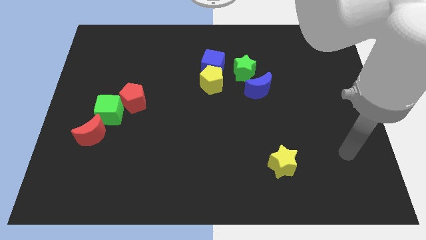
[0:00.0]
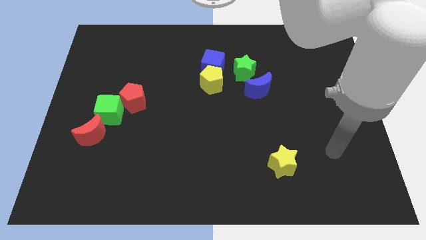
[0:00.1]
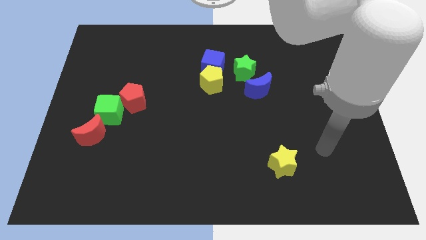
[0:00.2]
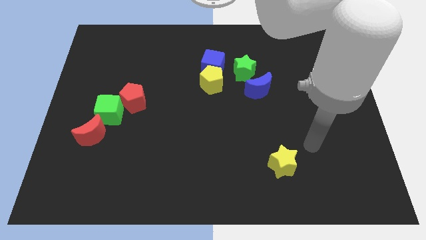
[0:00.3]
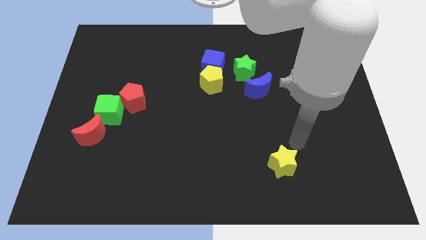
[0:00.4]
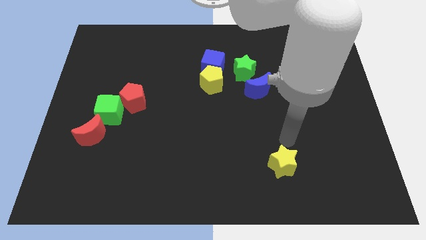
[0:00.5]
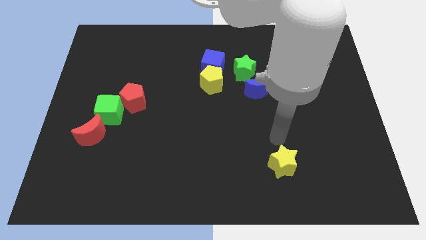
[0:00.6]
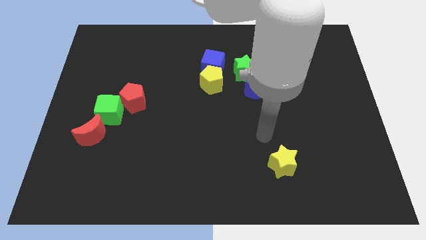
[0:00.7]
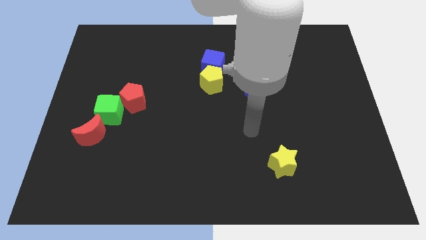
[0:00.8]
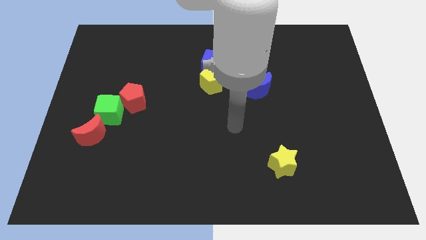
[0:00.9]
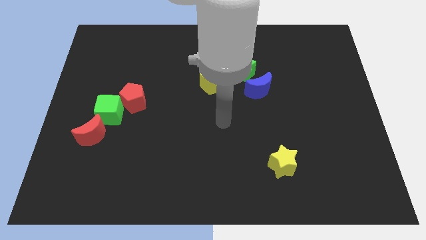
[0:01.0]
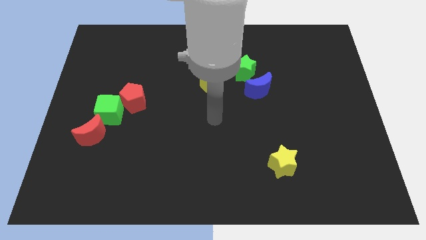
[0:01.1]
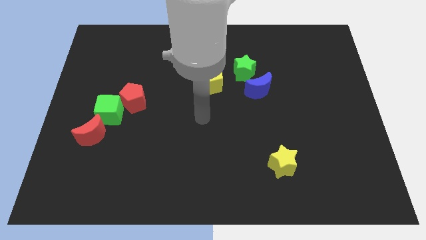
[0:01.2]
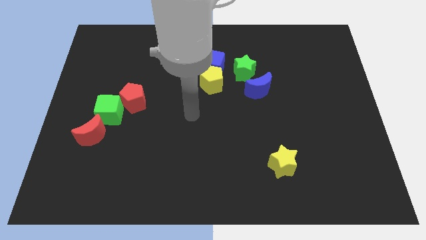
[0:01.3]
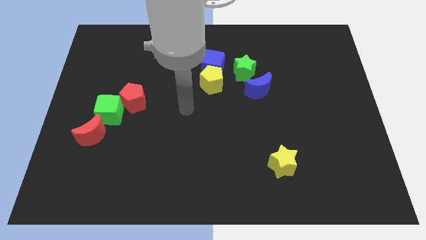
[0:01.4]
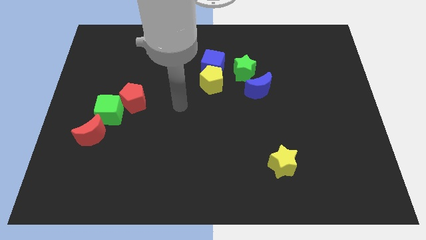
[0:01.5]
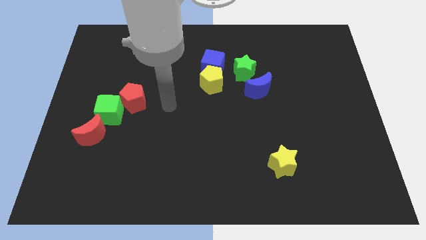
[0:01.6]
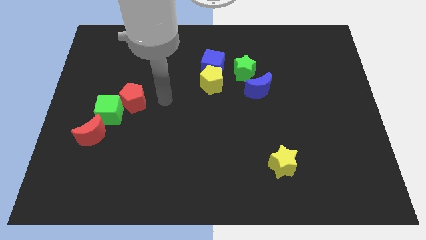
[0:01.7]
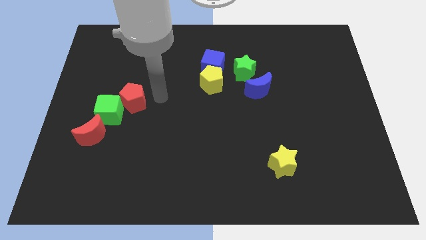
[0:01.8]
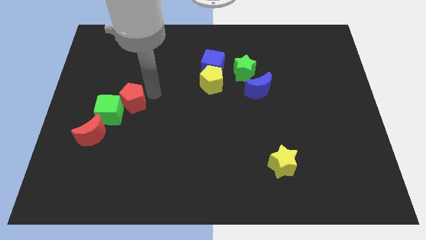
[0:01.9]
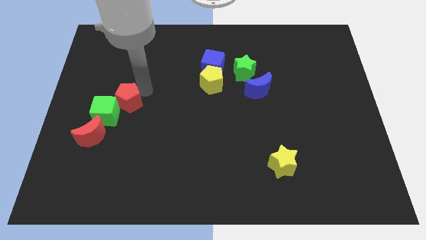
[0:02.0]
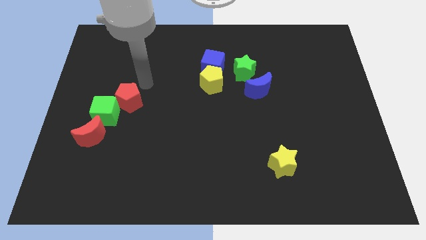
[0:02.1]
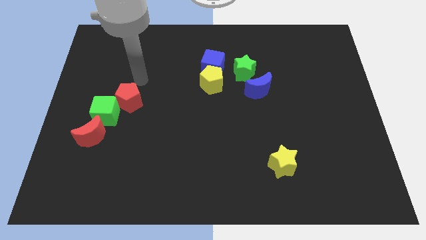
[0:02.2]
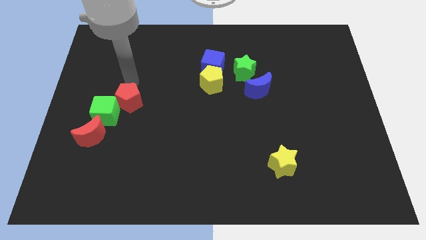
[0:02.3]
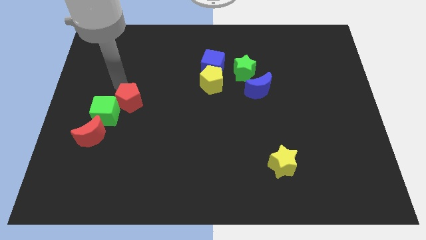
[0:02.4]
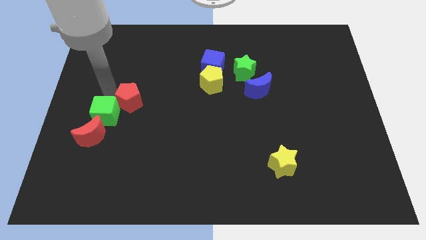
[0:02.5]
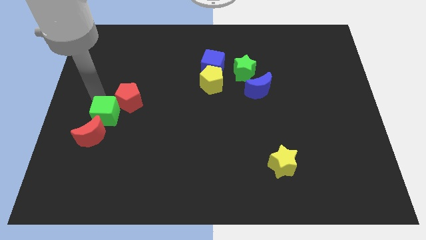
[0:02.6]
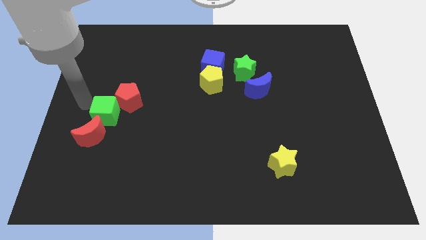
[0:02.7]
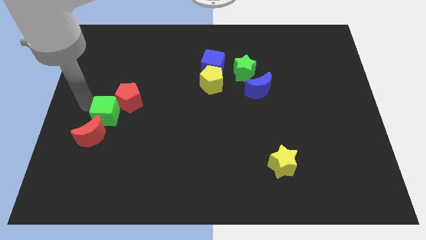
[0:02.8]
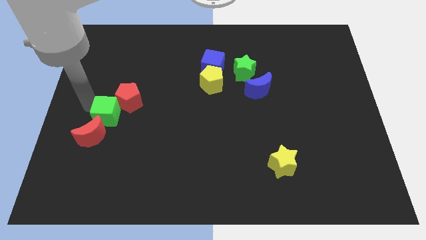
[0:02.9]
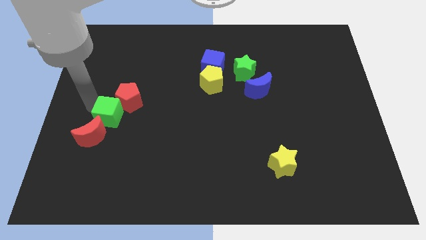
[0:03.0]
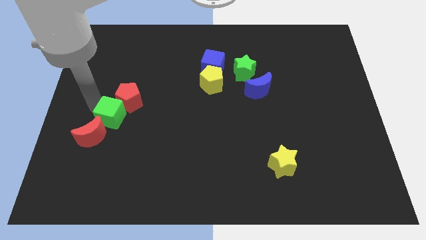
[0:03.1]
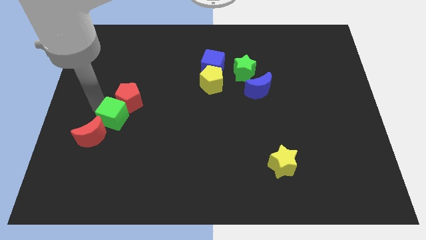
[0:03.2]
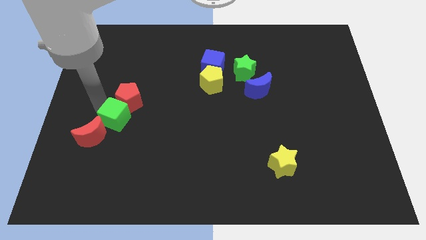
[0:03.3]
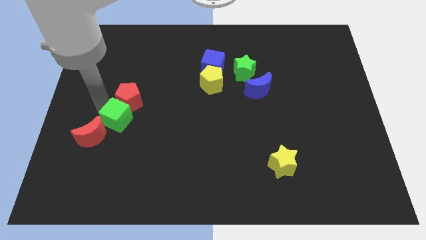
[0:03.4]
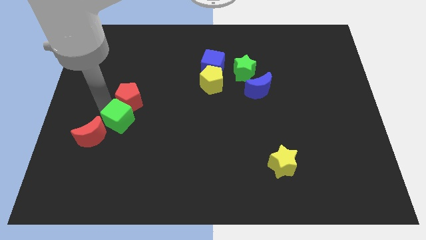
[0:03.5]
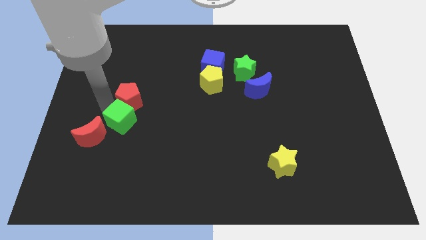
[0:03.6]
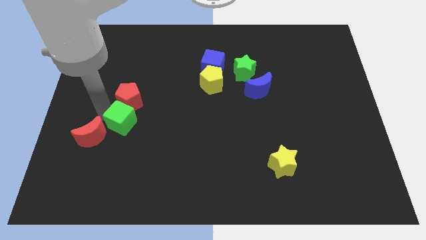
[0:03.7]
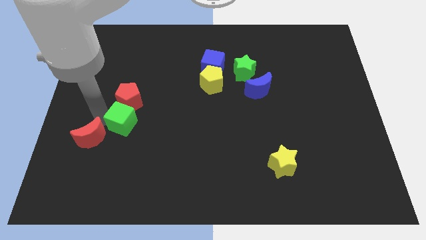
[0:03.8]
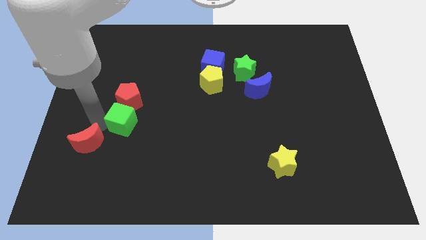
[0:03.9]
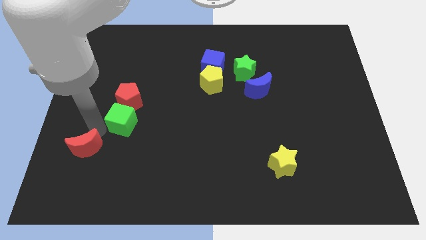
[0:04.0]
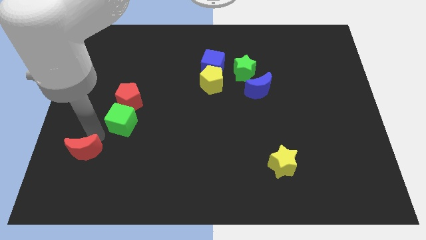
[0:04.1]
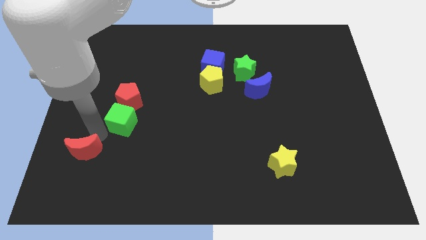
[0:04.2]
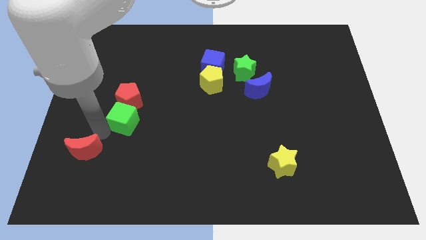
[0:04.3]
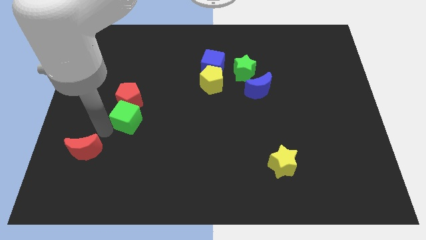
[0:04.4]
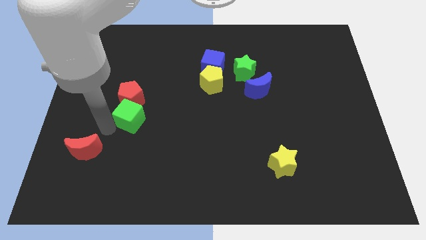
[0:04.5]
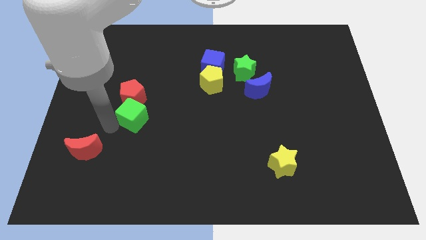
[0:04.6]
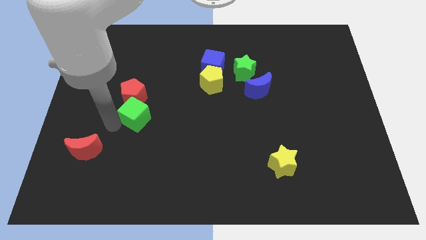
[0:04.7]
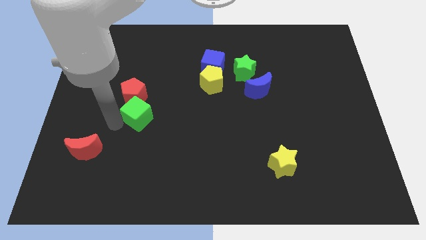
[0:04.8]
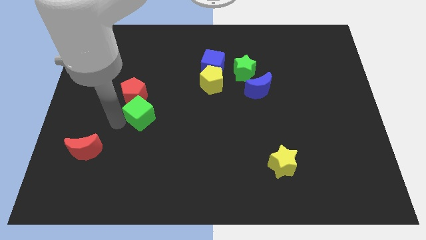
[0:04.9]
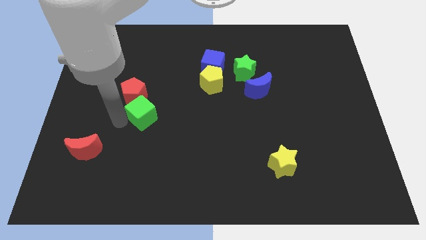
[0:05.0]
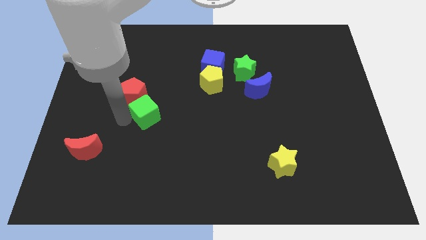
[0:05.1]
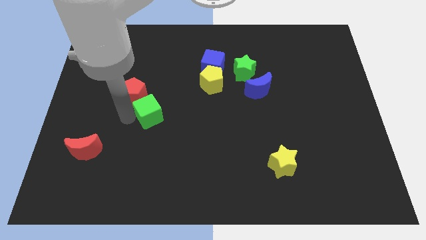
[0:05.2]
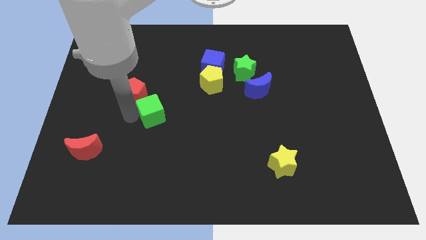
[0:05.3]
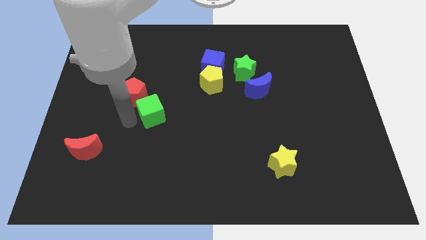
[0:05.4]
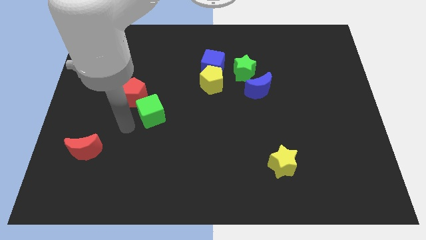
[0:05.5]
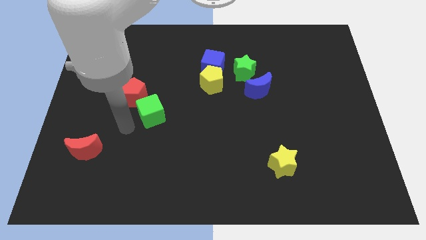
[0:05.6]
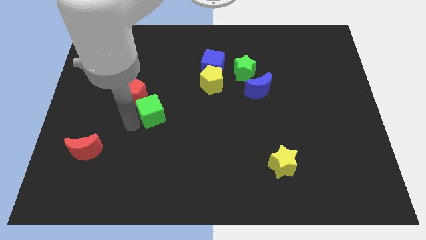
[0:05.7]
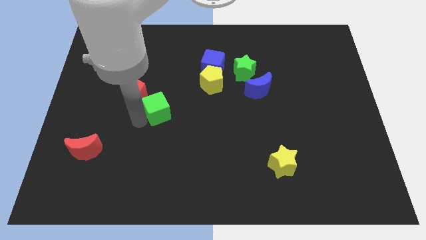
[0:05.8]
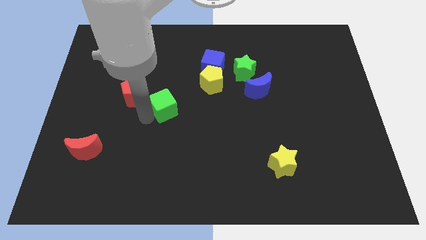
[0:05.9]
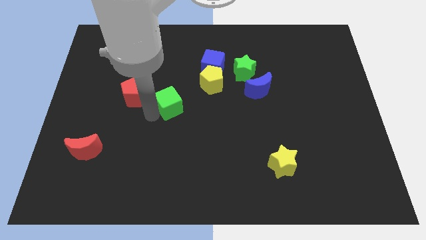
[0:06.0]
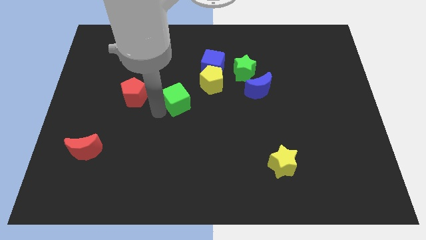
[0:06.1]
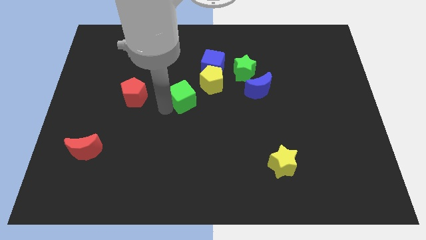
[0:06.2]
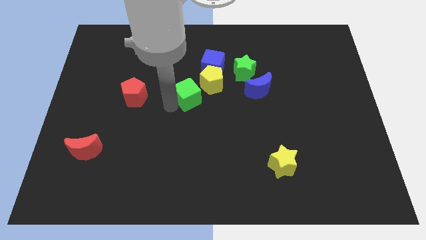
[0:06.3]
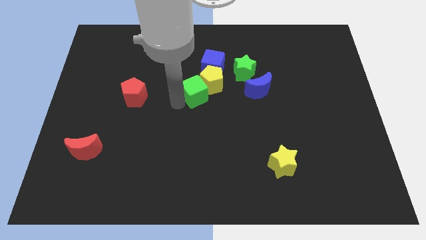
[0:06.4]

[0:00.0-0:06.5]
push the green cube to the yellow pentagon
